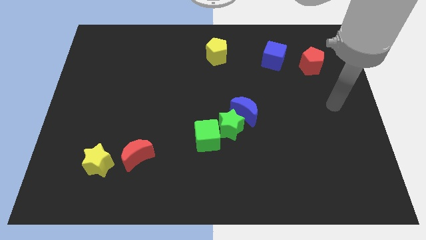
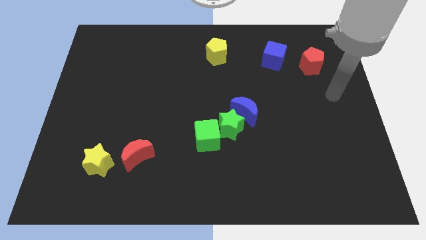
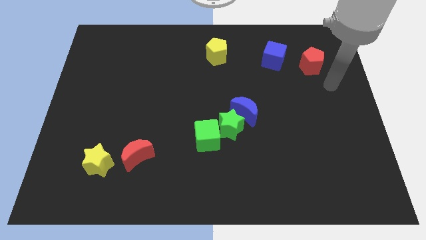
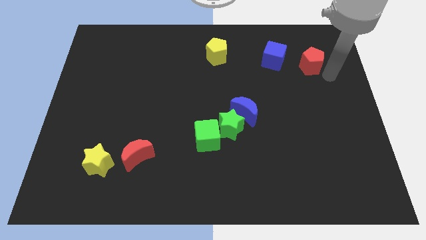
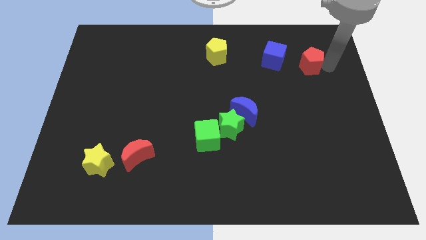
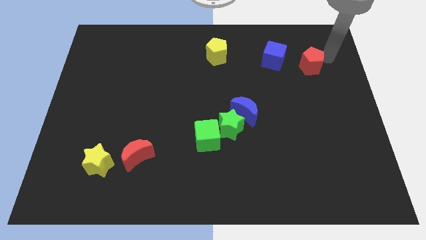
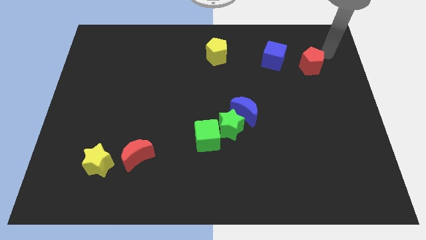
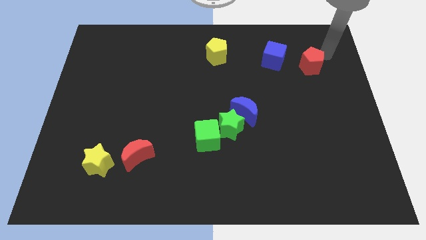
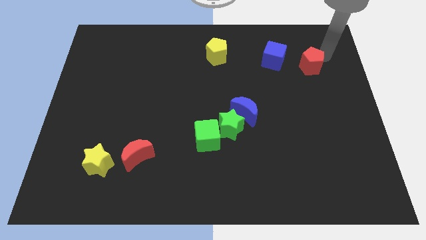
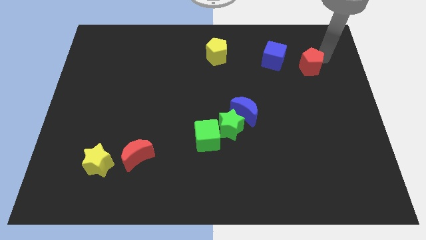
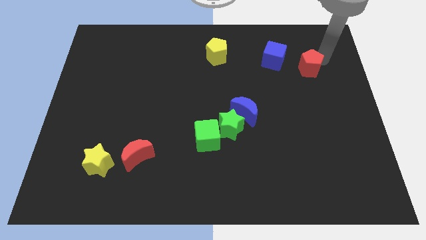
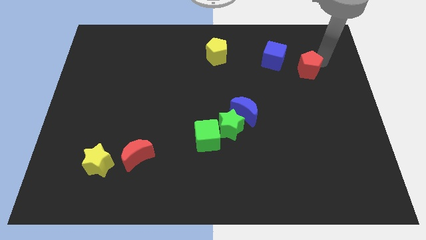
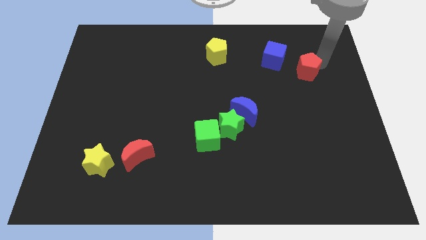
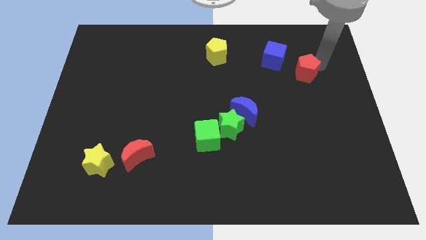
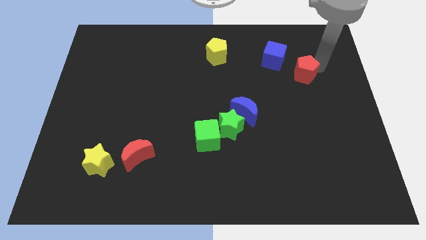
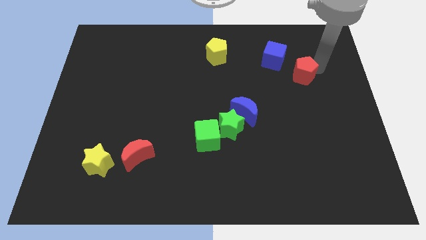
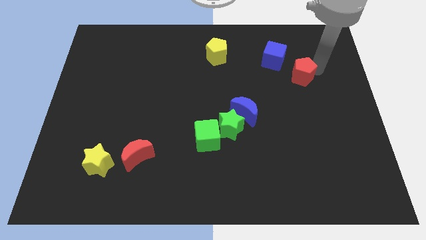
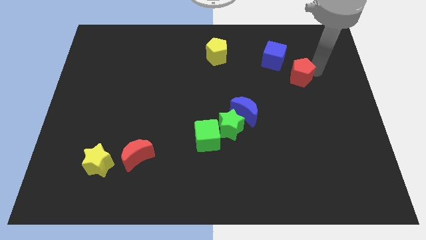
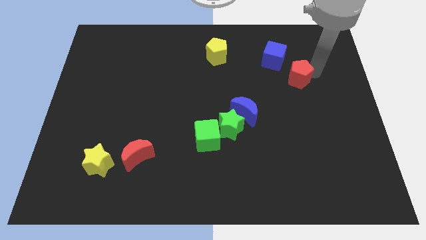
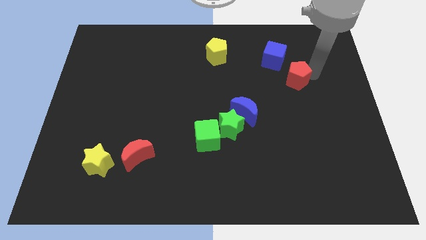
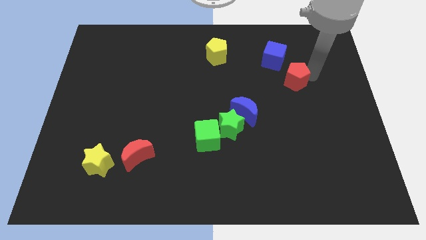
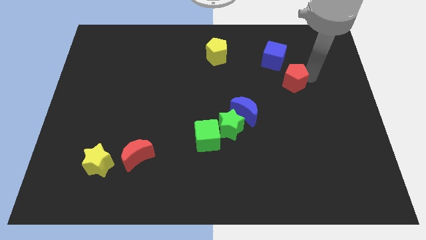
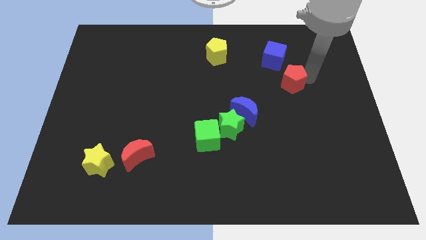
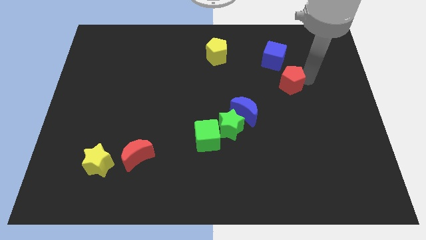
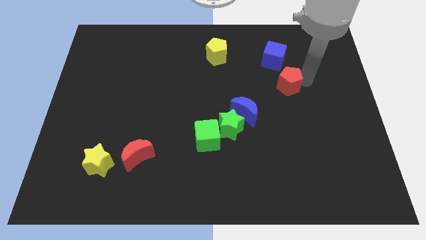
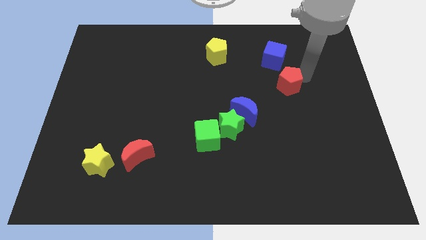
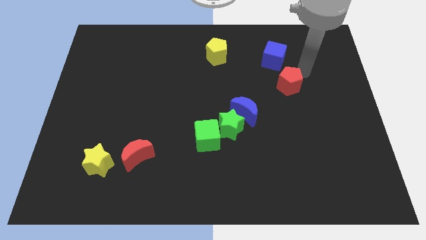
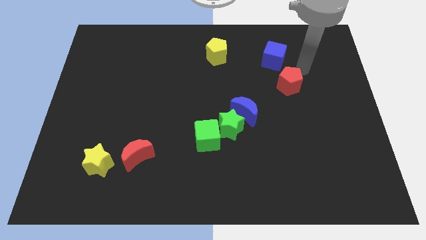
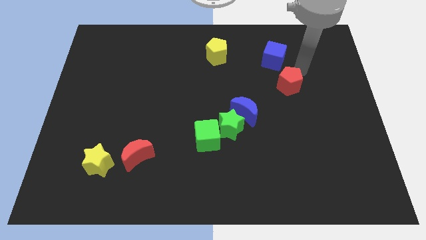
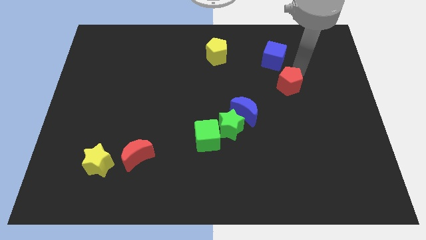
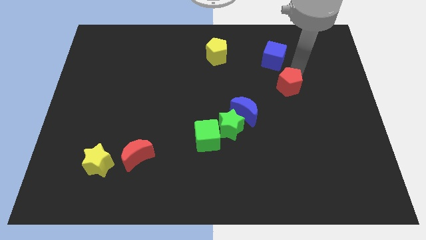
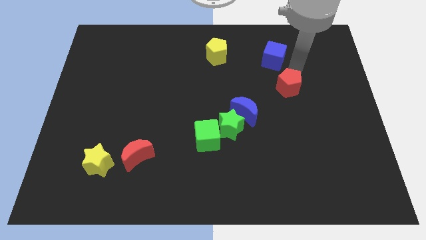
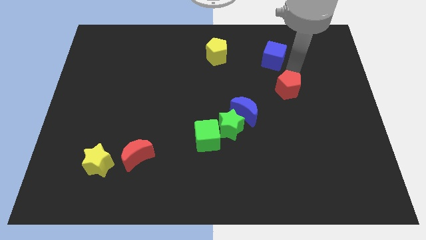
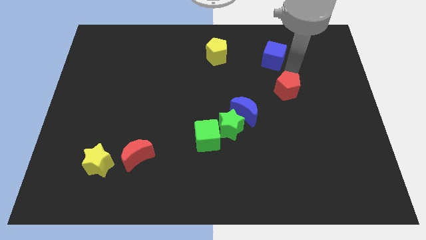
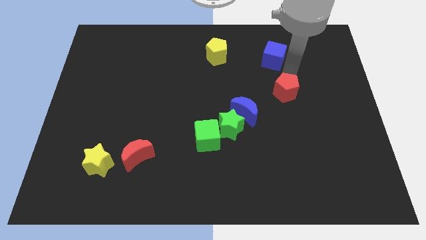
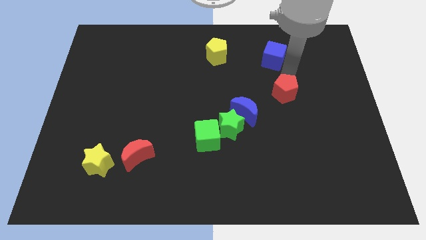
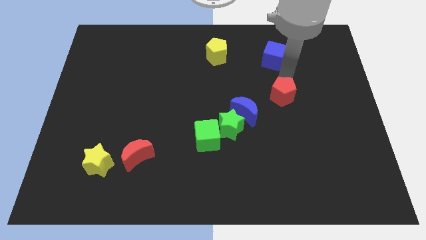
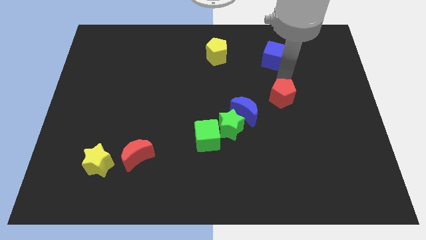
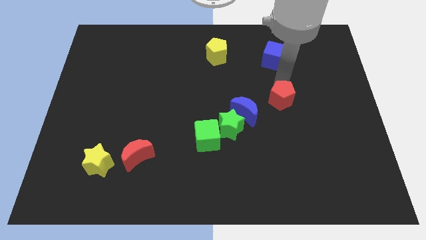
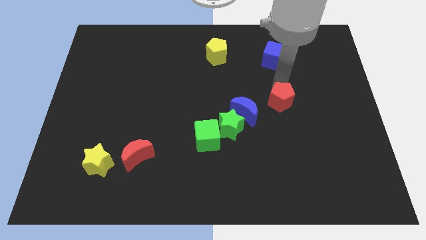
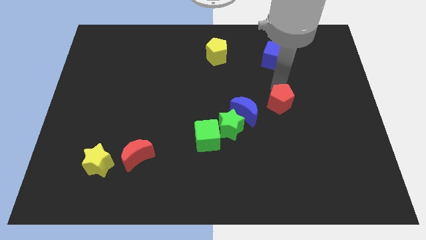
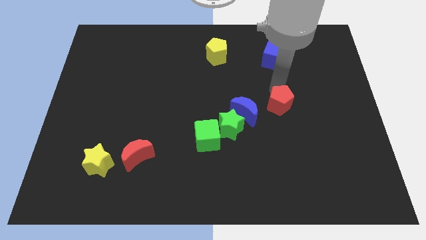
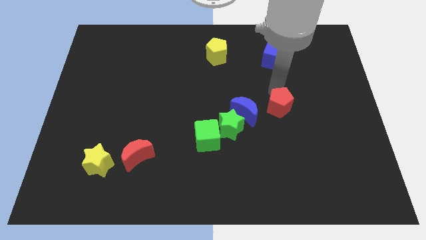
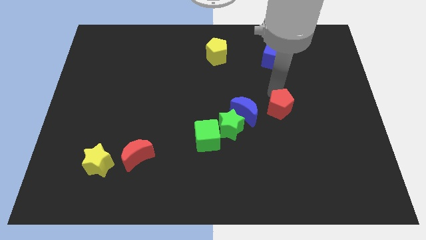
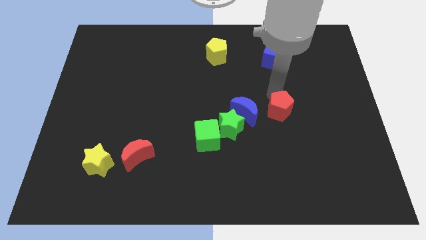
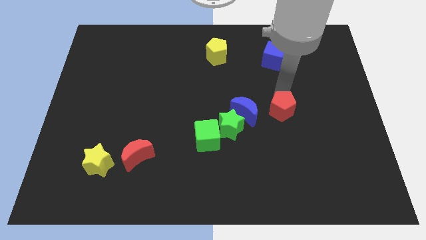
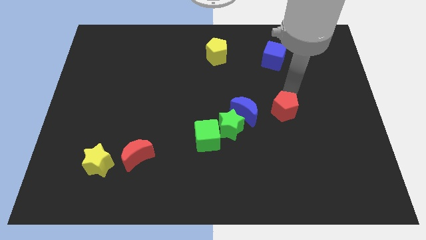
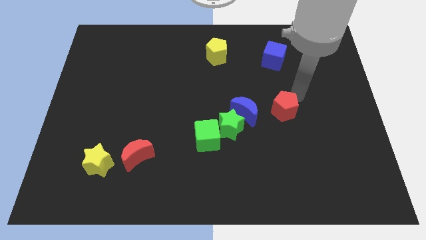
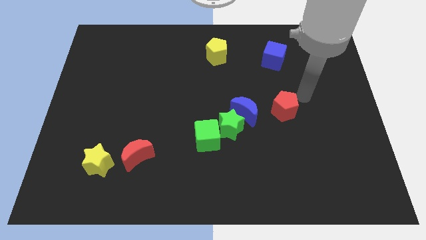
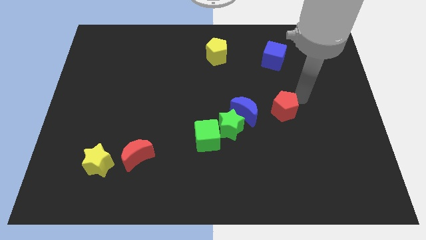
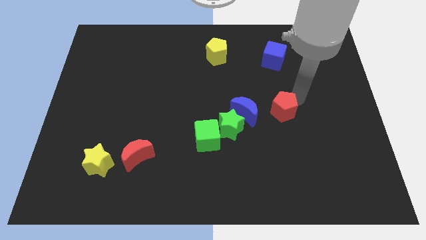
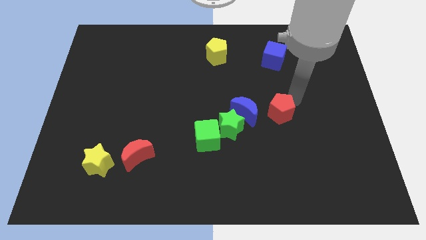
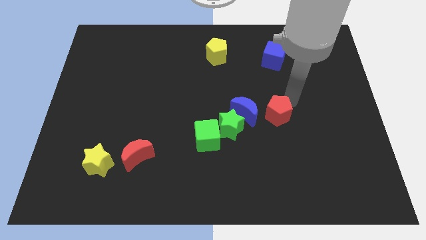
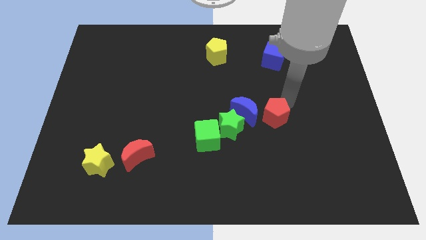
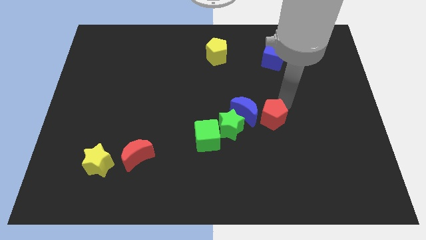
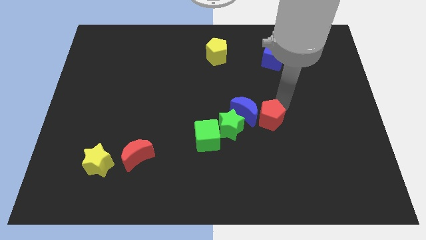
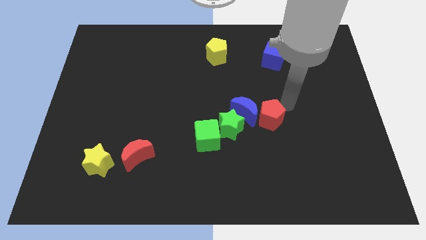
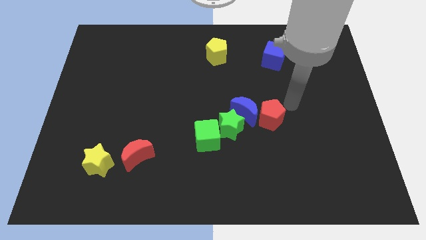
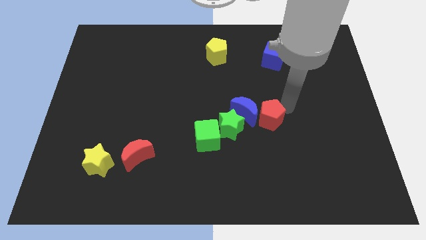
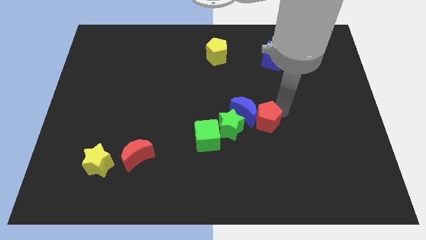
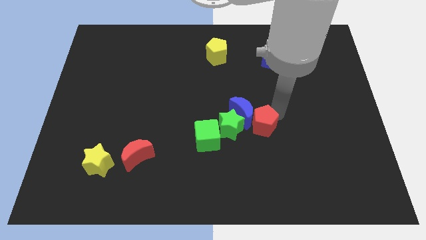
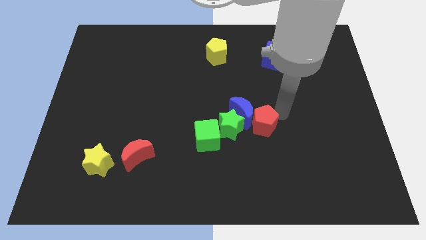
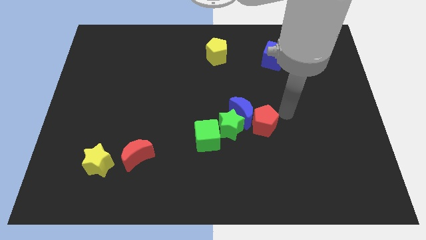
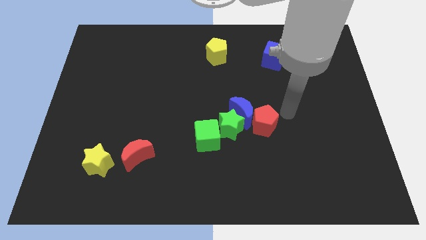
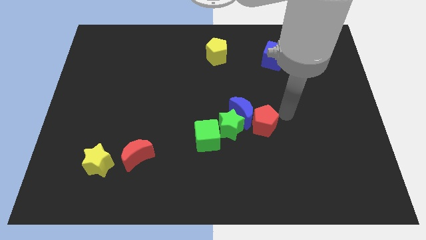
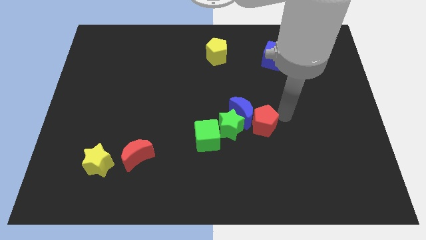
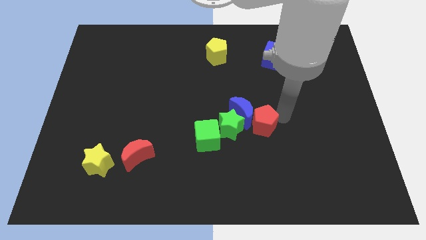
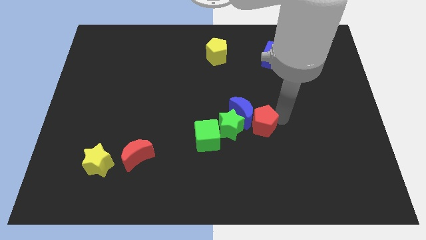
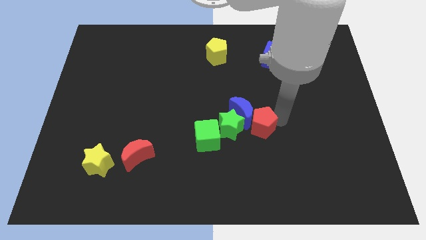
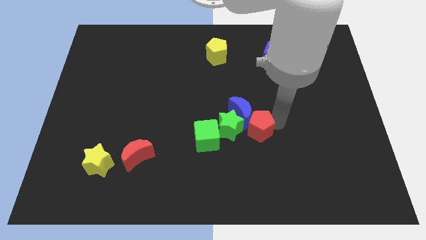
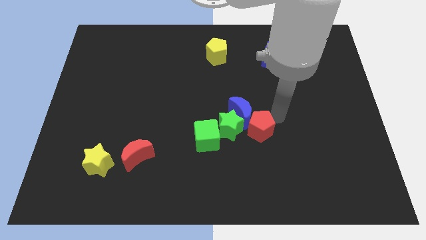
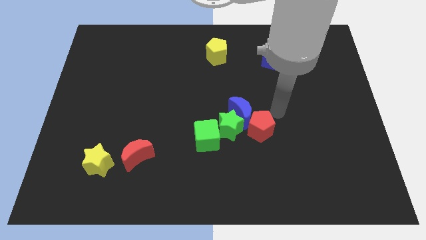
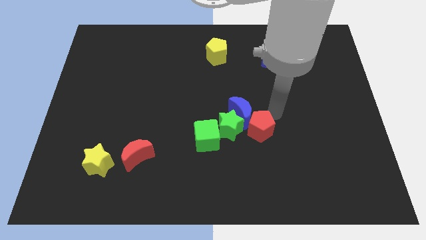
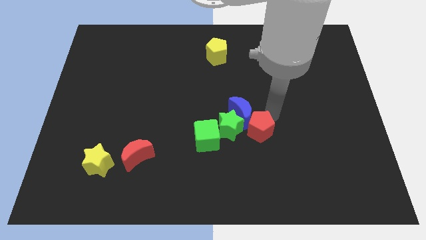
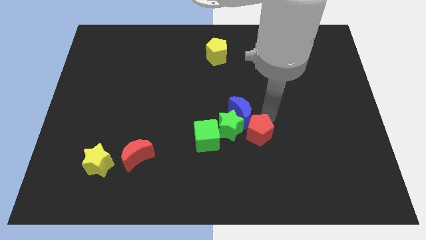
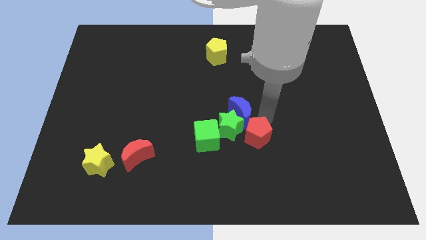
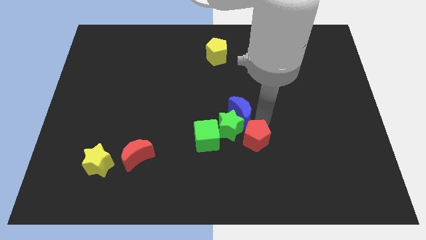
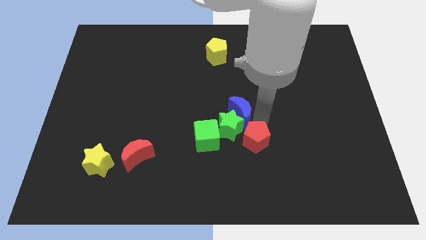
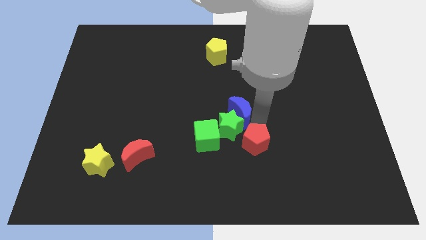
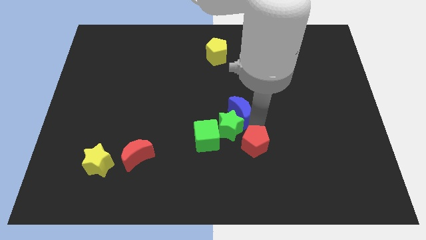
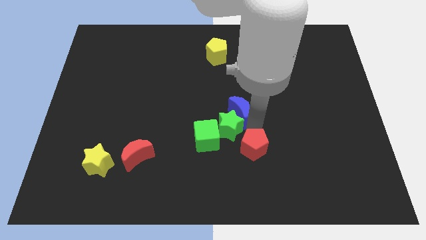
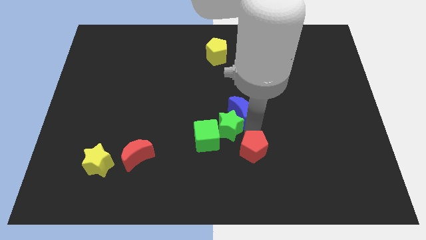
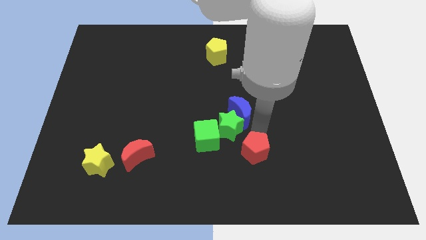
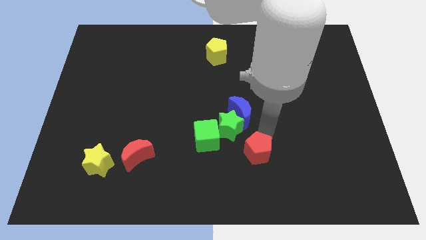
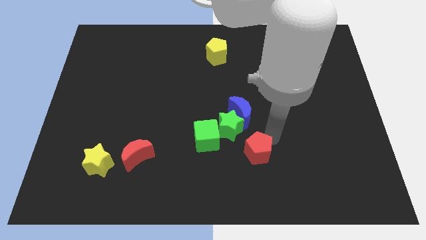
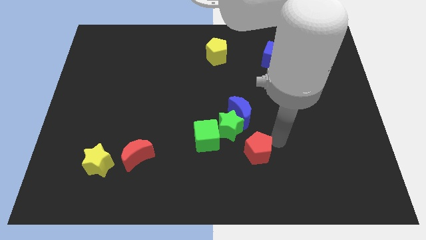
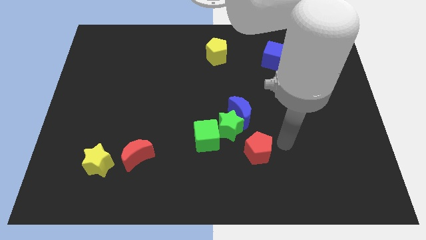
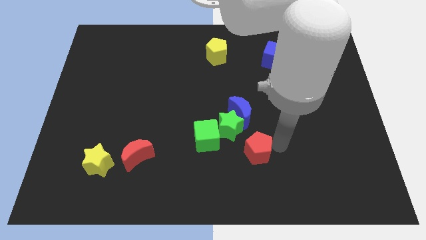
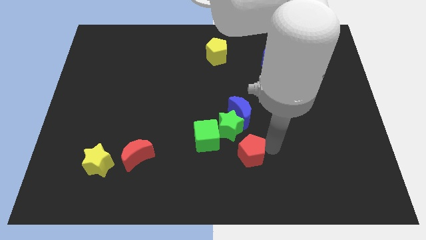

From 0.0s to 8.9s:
move the red pentagon diagonally down and to the right of the green cube
